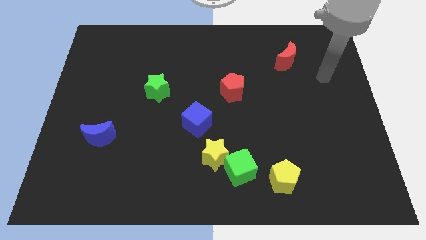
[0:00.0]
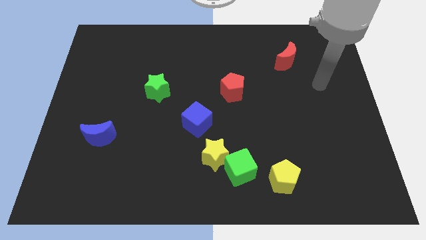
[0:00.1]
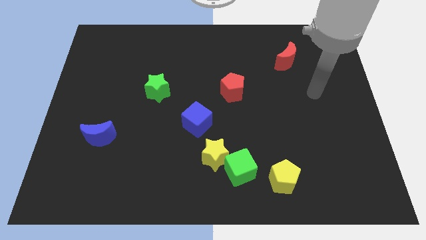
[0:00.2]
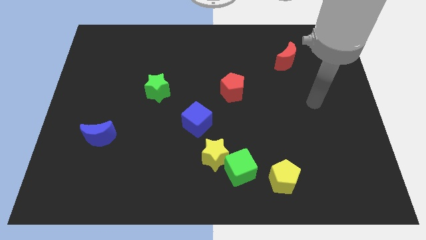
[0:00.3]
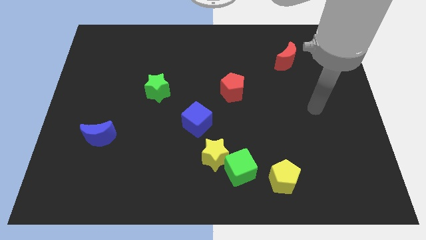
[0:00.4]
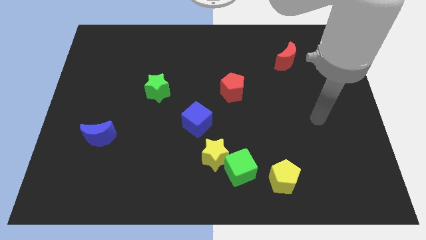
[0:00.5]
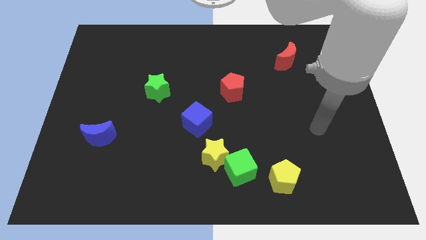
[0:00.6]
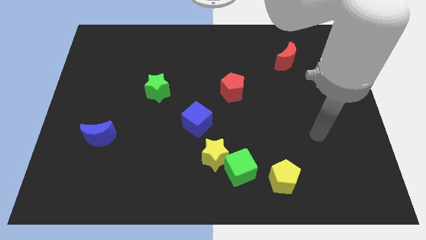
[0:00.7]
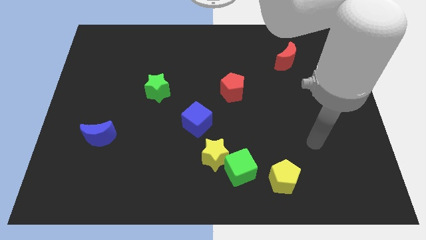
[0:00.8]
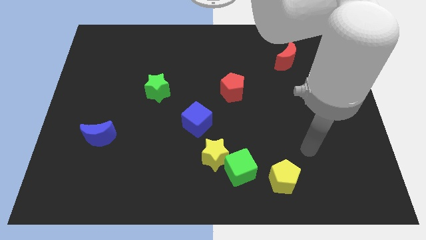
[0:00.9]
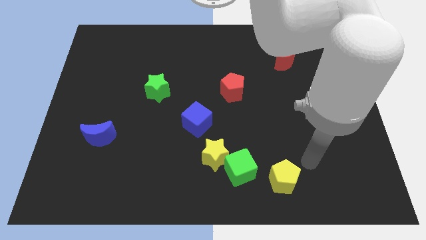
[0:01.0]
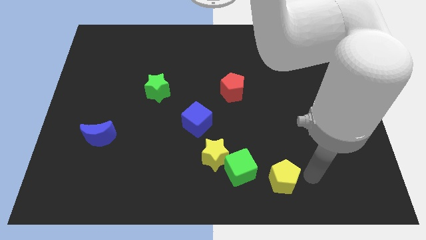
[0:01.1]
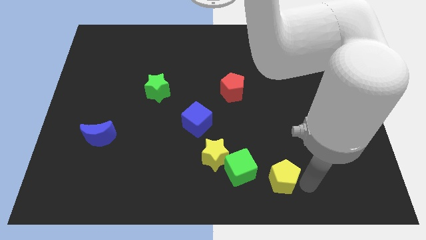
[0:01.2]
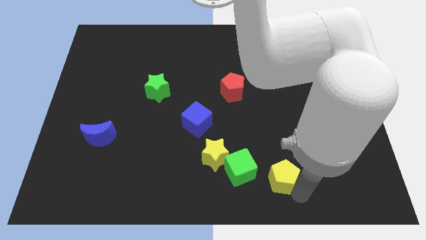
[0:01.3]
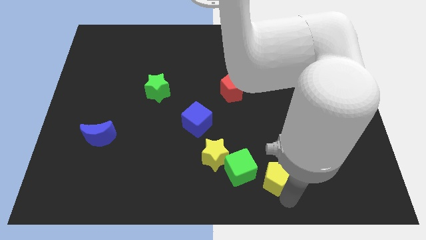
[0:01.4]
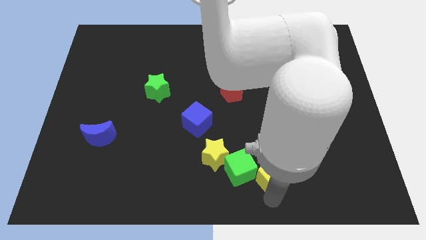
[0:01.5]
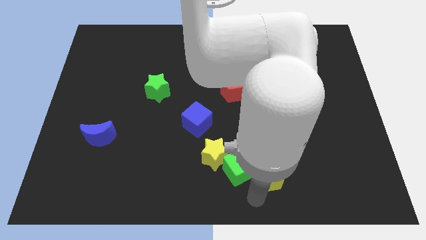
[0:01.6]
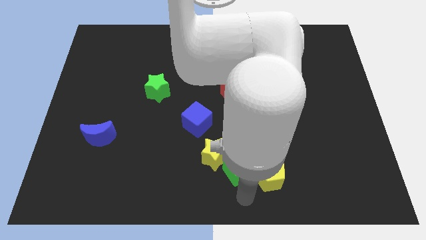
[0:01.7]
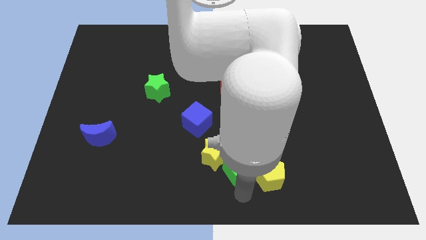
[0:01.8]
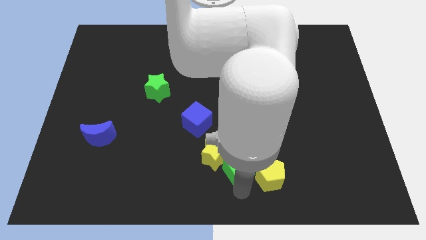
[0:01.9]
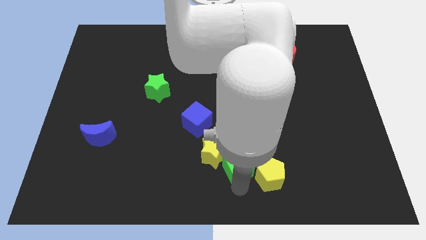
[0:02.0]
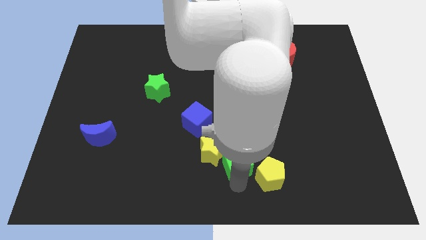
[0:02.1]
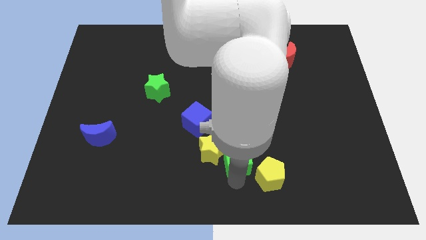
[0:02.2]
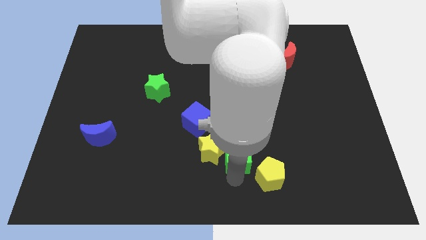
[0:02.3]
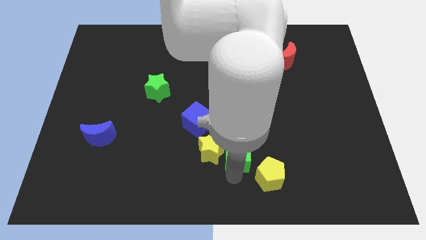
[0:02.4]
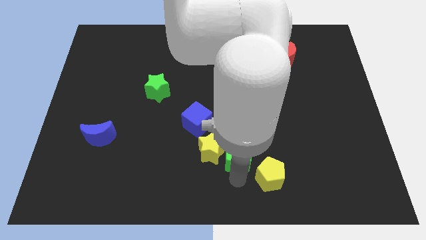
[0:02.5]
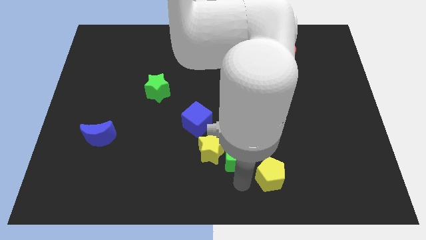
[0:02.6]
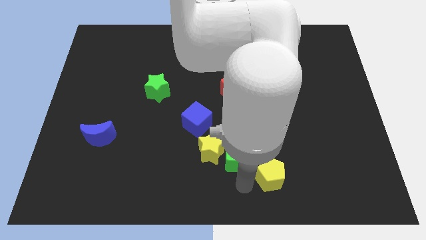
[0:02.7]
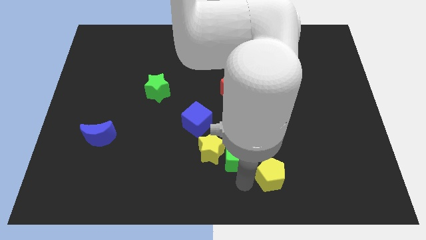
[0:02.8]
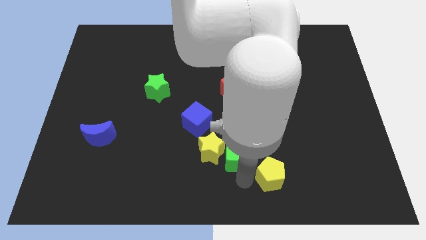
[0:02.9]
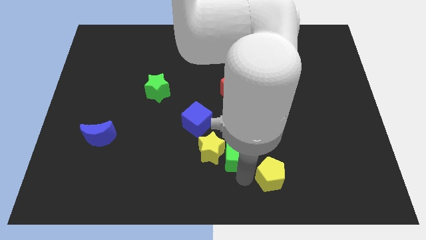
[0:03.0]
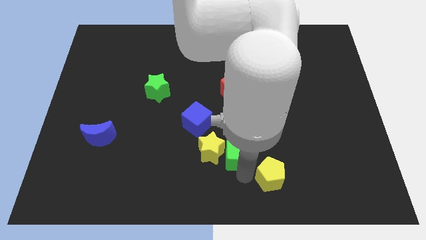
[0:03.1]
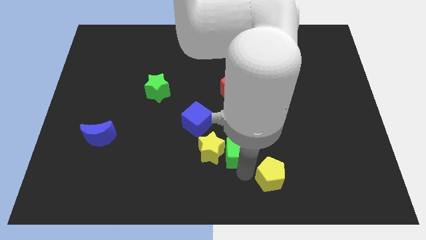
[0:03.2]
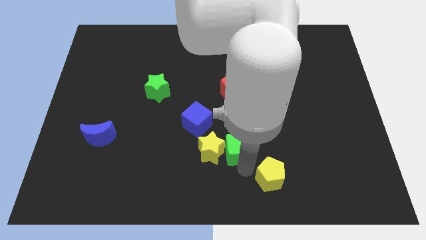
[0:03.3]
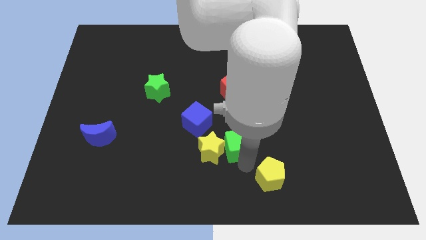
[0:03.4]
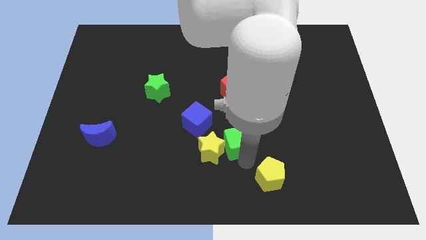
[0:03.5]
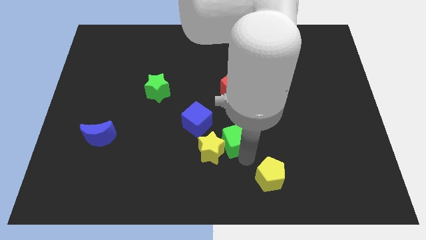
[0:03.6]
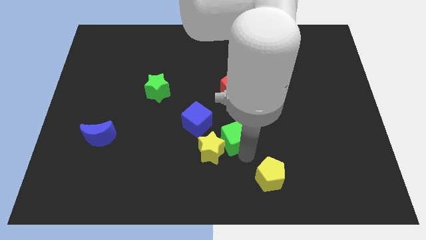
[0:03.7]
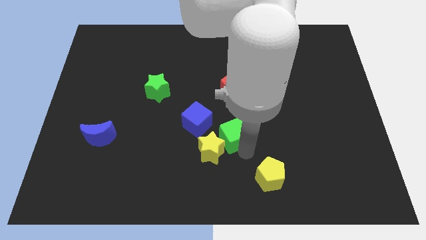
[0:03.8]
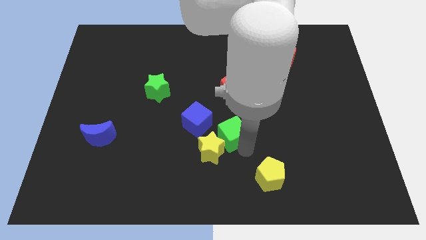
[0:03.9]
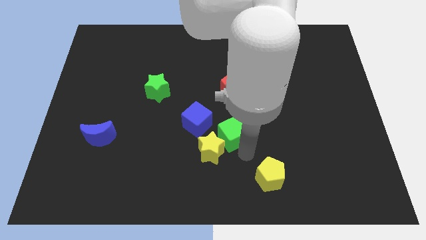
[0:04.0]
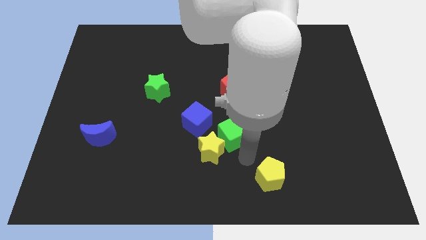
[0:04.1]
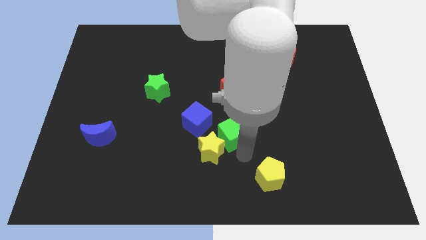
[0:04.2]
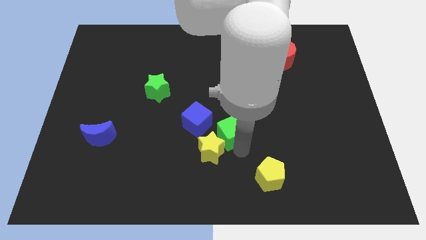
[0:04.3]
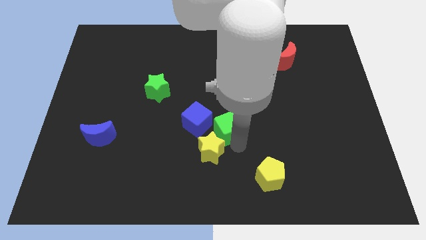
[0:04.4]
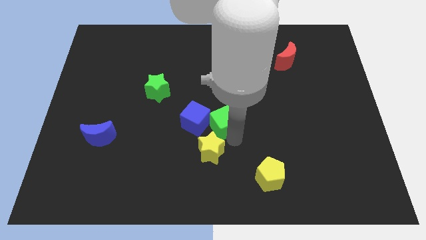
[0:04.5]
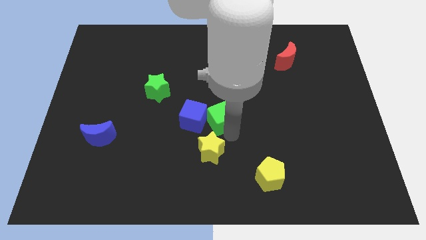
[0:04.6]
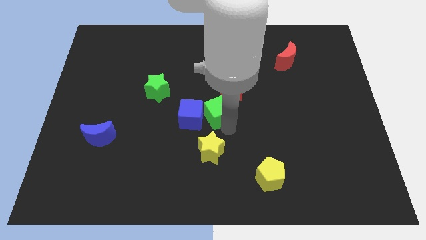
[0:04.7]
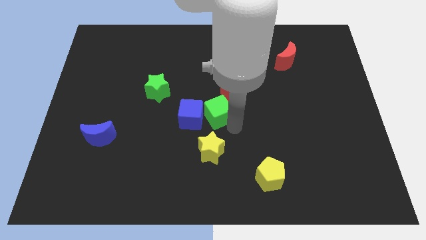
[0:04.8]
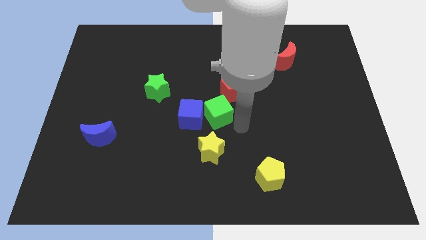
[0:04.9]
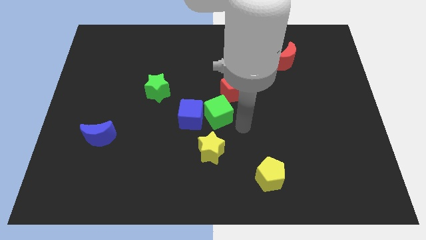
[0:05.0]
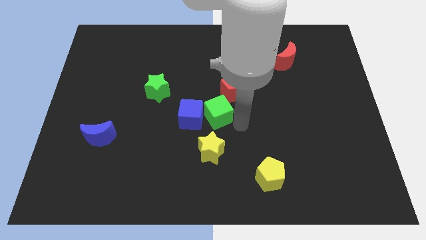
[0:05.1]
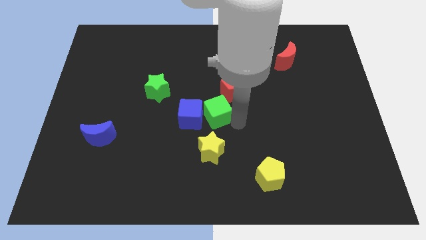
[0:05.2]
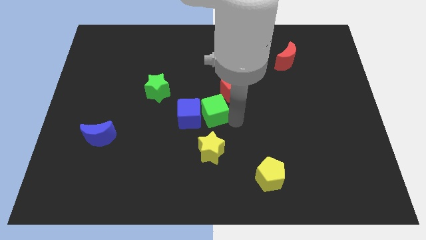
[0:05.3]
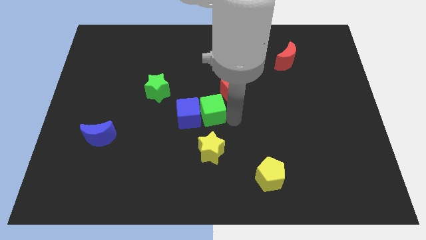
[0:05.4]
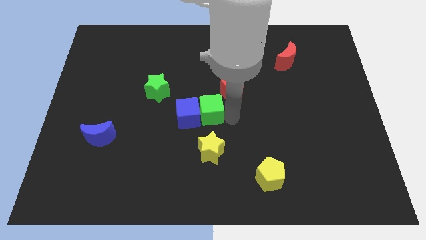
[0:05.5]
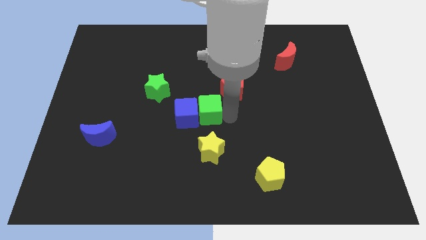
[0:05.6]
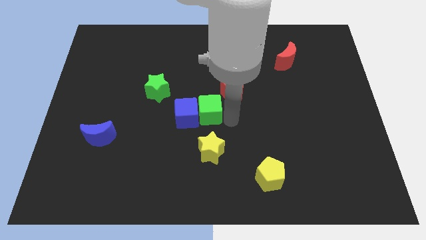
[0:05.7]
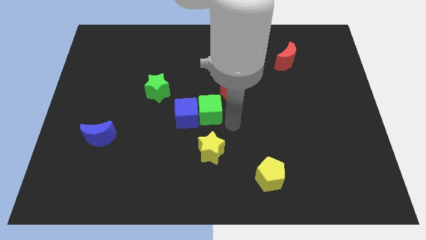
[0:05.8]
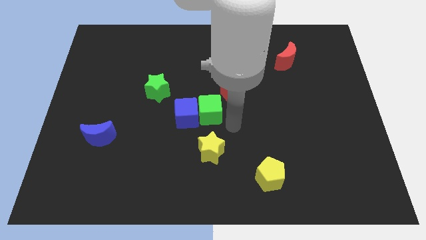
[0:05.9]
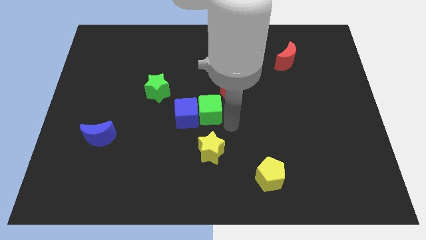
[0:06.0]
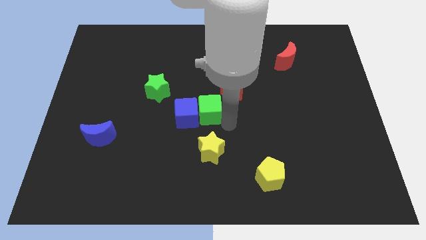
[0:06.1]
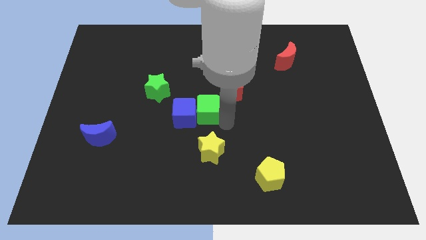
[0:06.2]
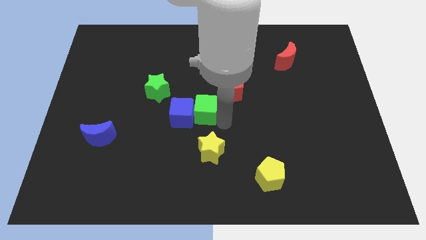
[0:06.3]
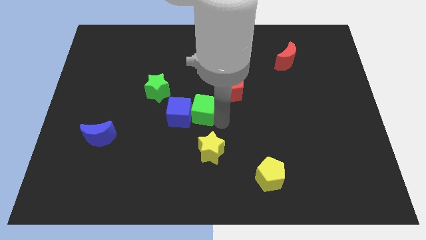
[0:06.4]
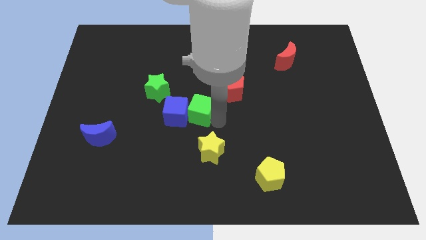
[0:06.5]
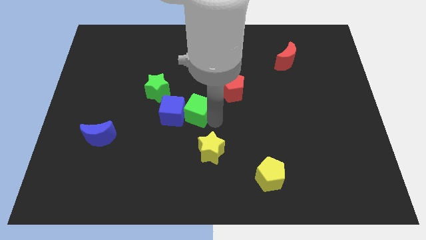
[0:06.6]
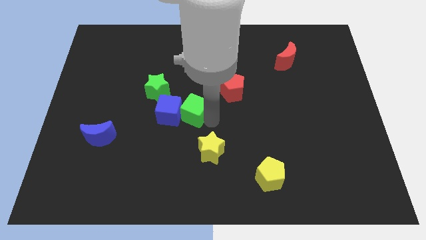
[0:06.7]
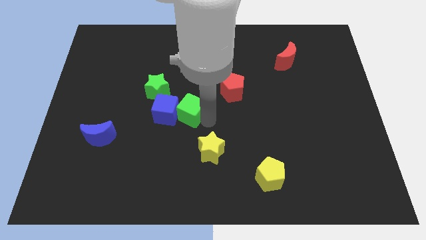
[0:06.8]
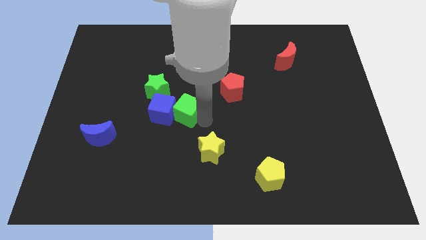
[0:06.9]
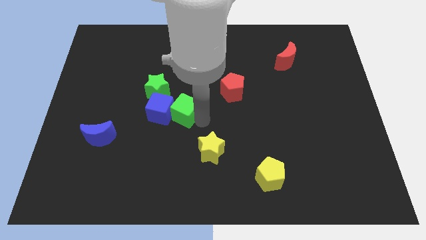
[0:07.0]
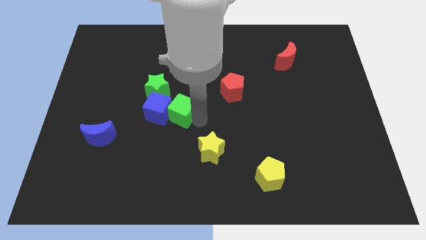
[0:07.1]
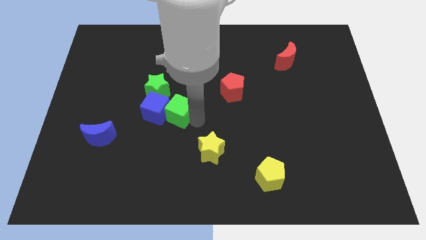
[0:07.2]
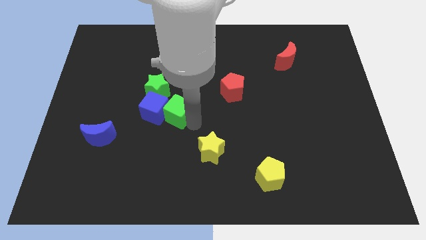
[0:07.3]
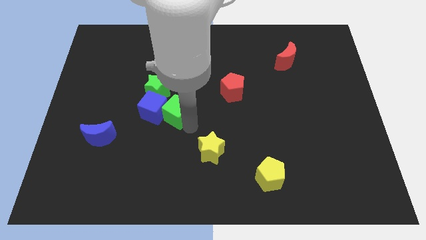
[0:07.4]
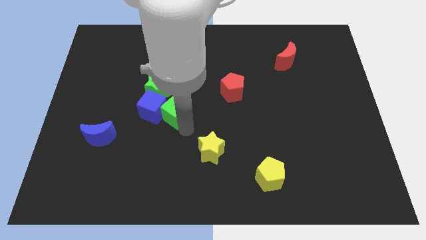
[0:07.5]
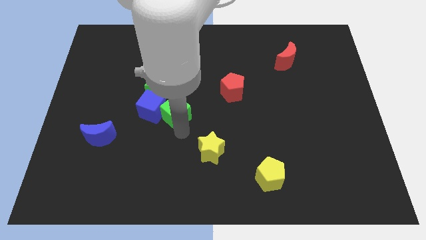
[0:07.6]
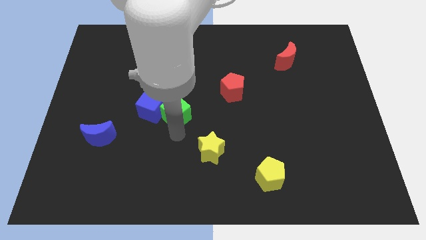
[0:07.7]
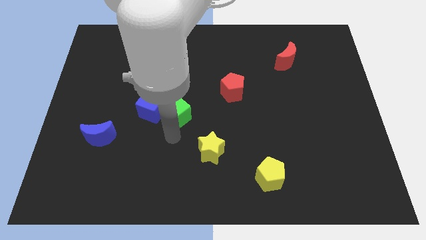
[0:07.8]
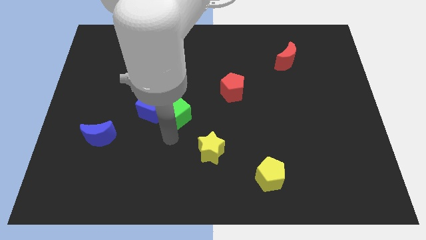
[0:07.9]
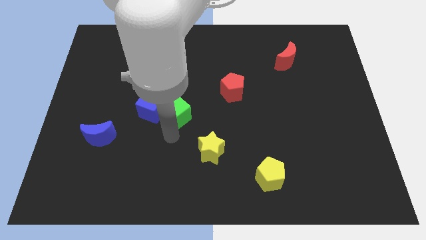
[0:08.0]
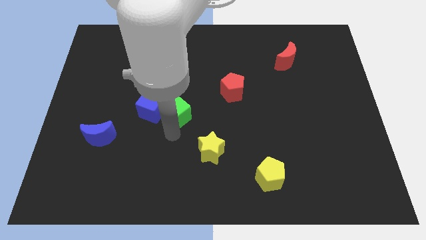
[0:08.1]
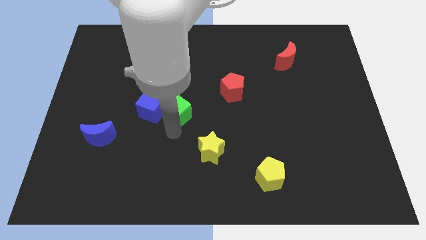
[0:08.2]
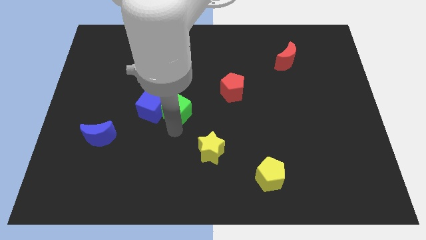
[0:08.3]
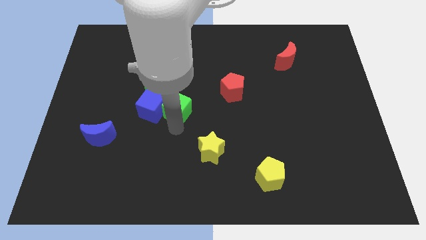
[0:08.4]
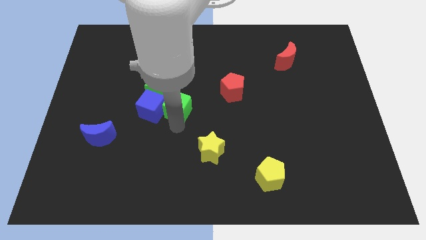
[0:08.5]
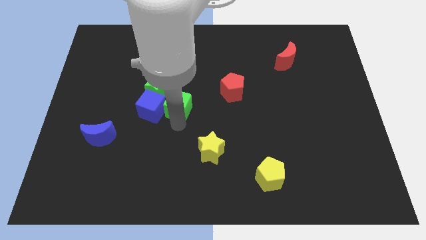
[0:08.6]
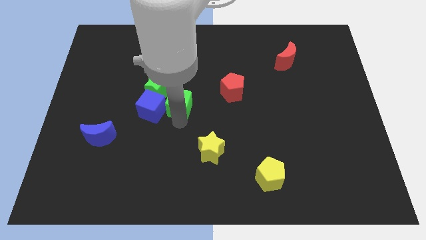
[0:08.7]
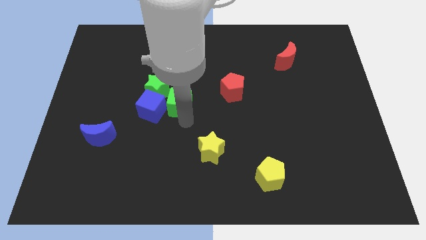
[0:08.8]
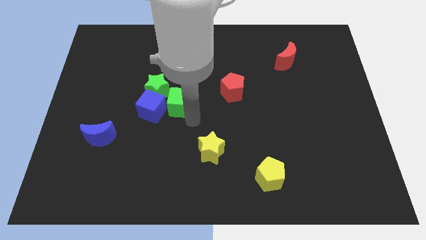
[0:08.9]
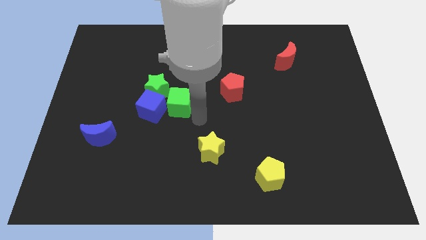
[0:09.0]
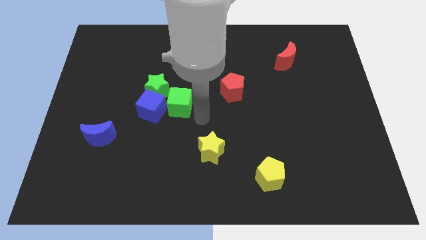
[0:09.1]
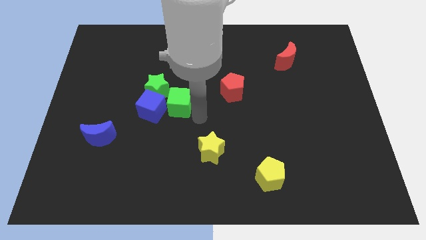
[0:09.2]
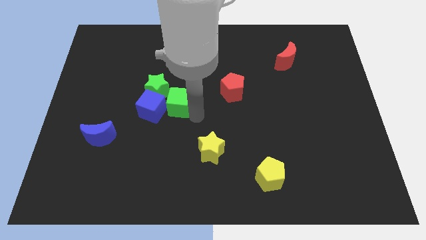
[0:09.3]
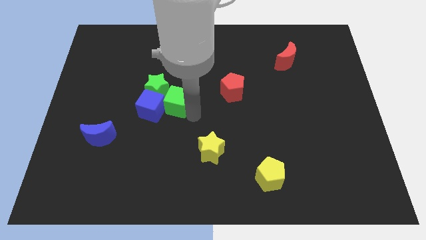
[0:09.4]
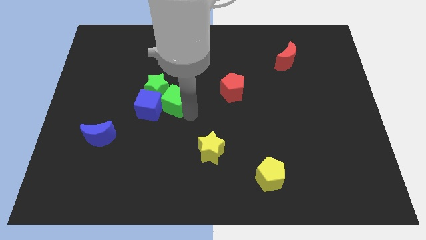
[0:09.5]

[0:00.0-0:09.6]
move the green cube towards the green star
